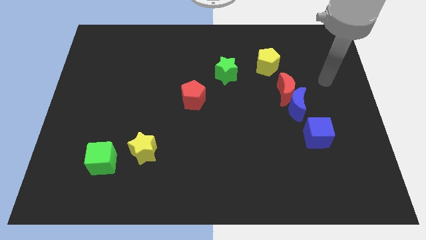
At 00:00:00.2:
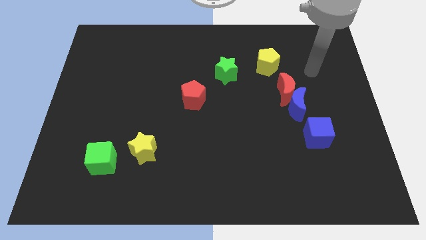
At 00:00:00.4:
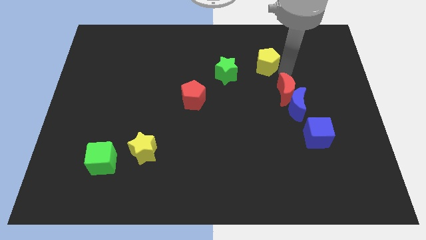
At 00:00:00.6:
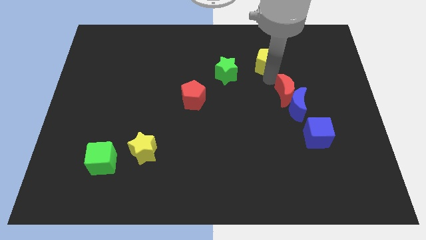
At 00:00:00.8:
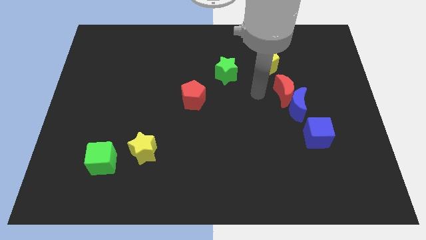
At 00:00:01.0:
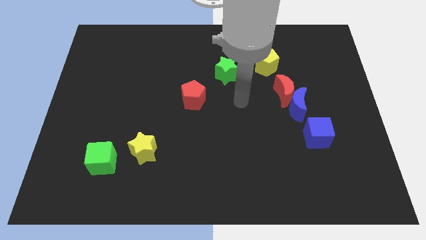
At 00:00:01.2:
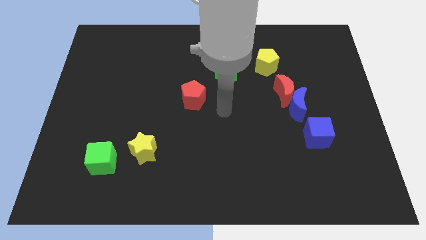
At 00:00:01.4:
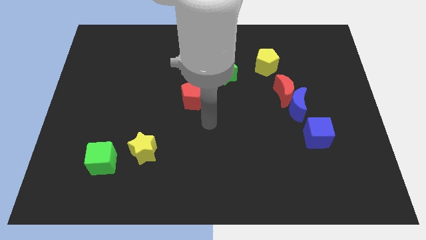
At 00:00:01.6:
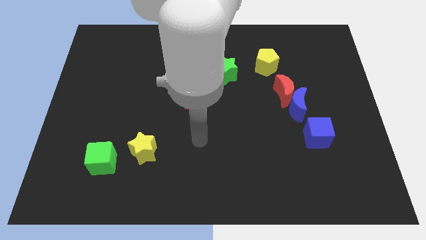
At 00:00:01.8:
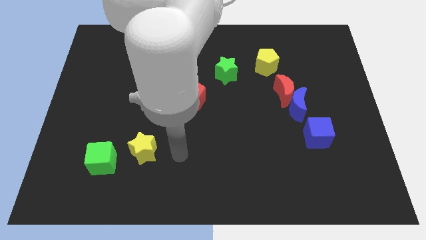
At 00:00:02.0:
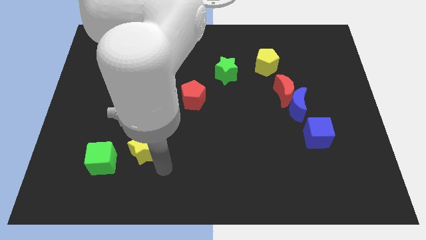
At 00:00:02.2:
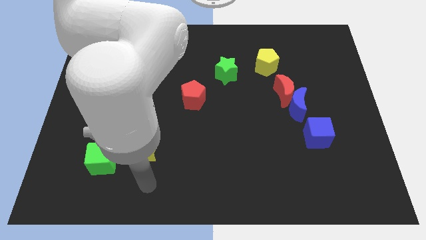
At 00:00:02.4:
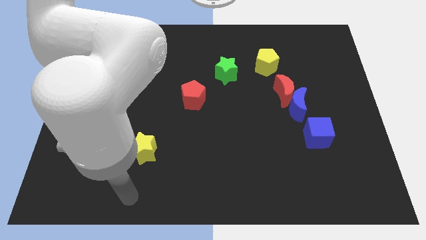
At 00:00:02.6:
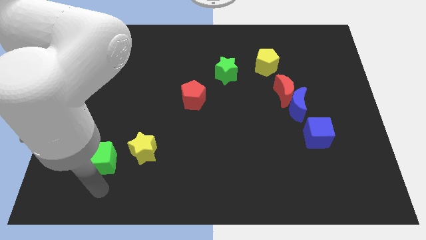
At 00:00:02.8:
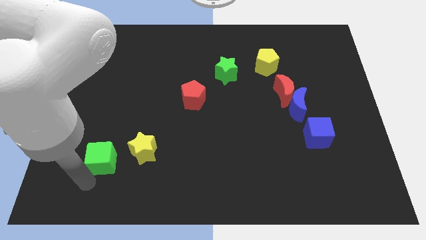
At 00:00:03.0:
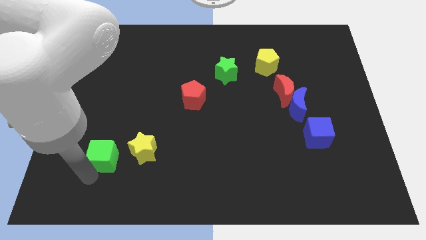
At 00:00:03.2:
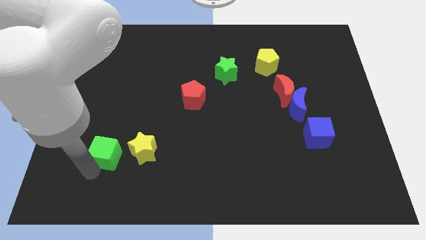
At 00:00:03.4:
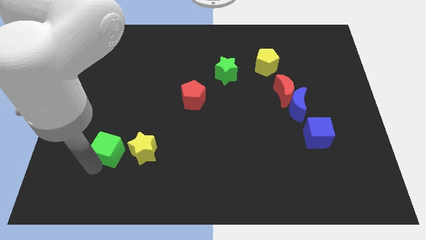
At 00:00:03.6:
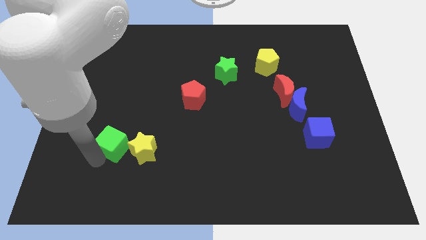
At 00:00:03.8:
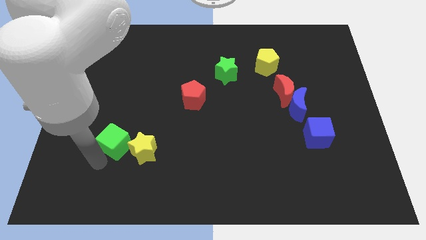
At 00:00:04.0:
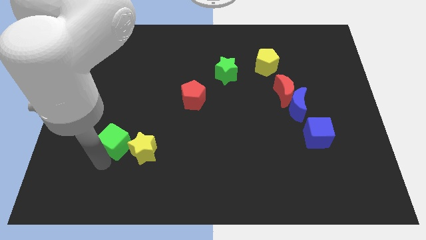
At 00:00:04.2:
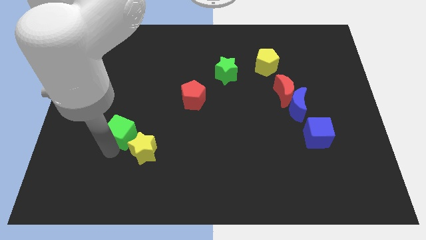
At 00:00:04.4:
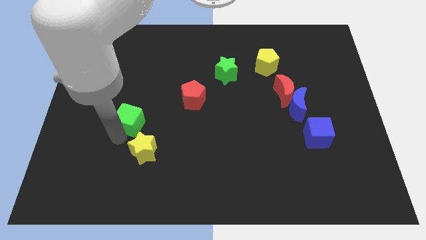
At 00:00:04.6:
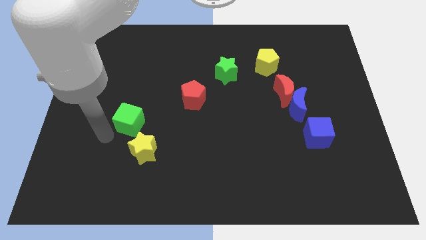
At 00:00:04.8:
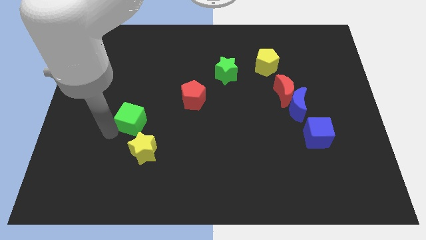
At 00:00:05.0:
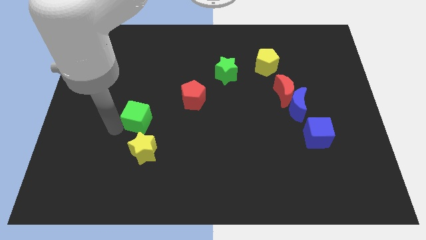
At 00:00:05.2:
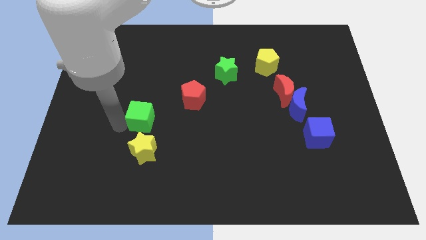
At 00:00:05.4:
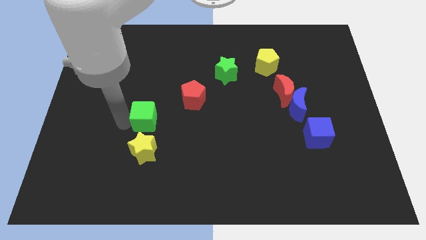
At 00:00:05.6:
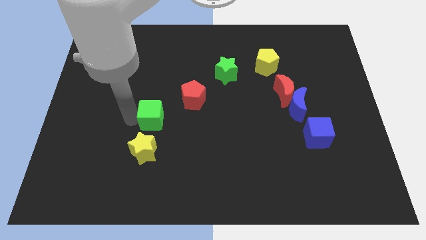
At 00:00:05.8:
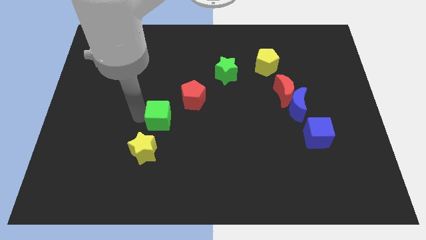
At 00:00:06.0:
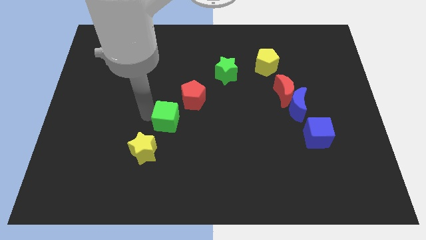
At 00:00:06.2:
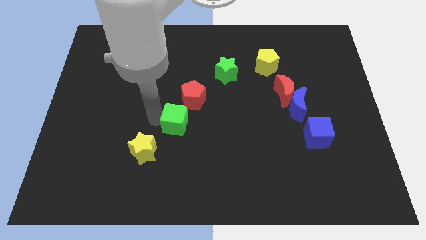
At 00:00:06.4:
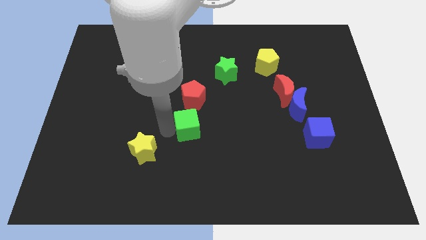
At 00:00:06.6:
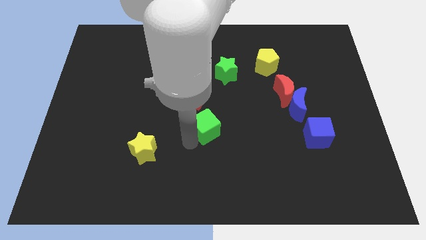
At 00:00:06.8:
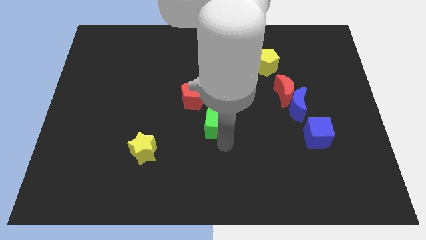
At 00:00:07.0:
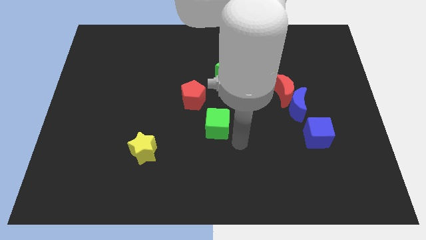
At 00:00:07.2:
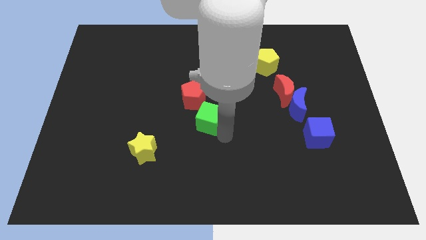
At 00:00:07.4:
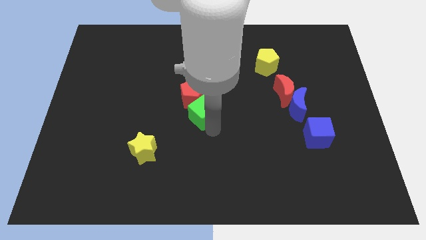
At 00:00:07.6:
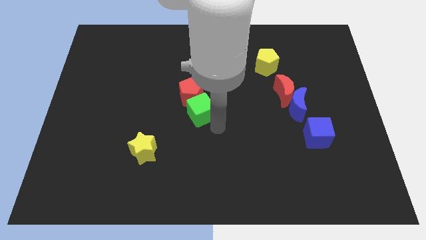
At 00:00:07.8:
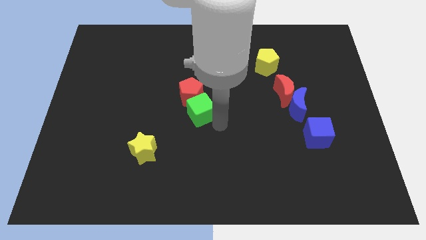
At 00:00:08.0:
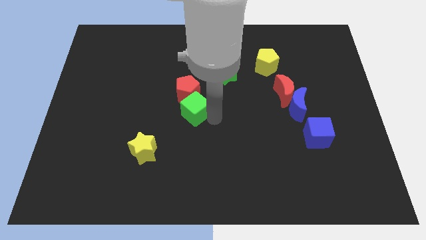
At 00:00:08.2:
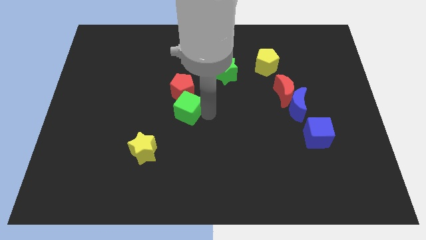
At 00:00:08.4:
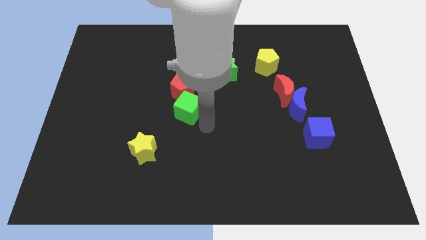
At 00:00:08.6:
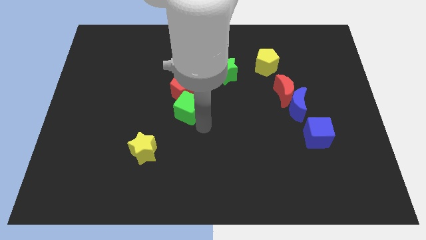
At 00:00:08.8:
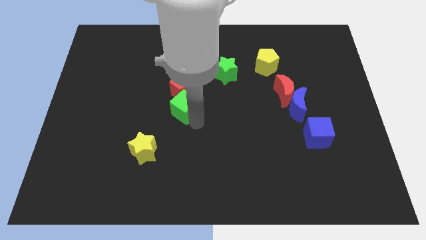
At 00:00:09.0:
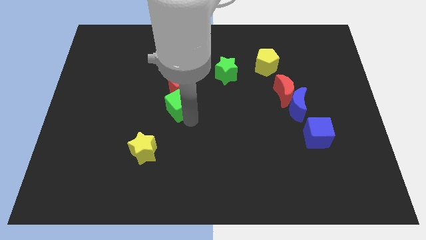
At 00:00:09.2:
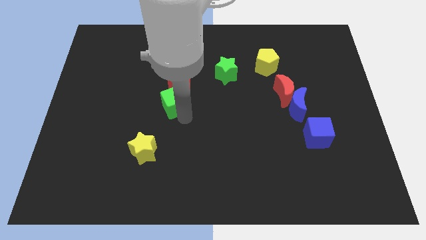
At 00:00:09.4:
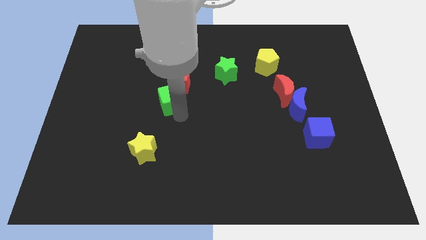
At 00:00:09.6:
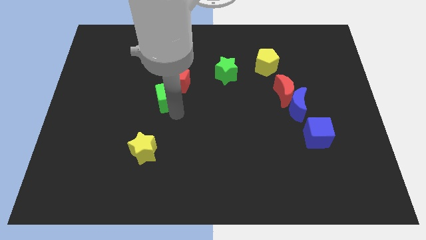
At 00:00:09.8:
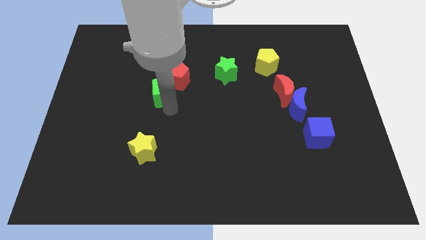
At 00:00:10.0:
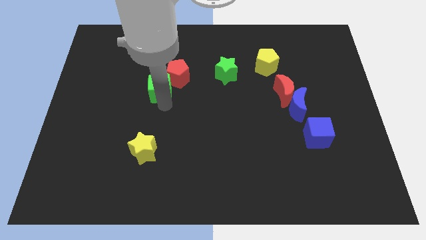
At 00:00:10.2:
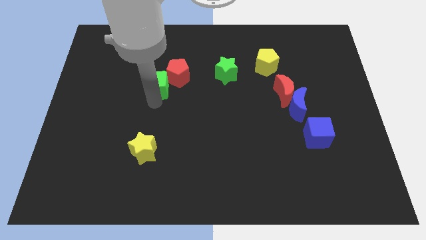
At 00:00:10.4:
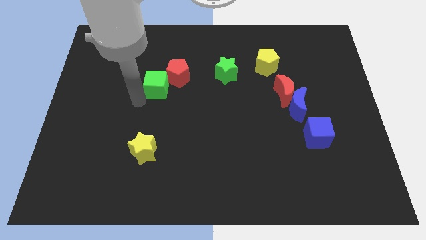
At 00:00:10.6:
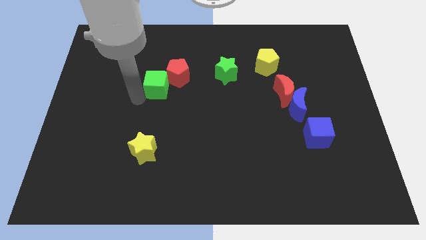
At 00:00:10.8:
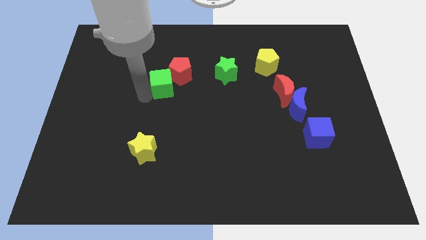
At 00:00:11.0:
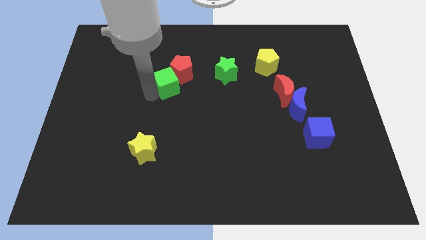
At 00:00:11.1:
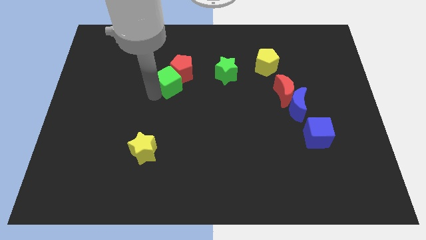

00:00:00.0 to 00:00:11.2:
put the green cube just left of the green star

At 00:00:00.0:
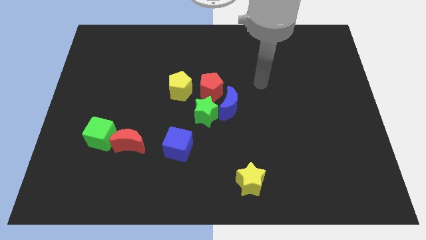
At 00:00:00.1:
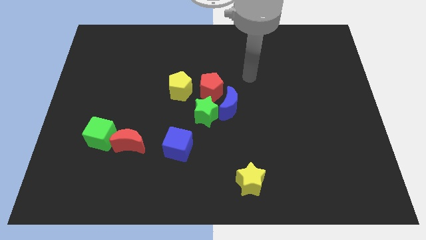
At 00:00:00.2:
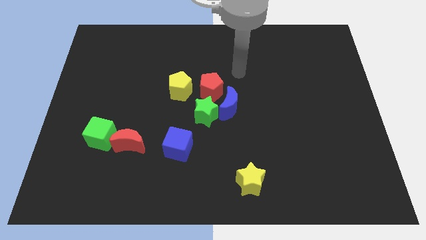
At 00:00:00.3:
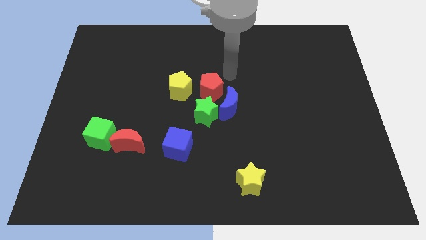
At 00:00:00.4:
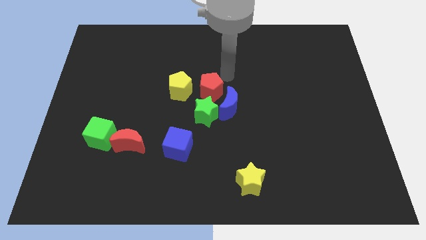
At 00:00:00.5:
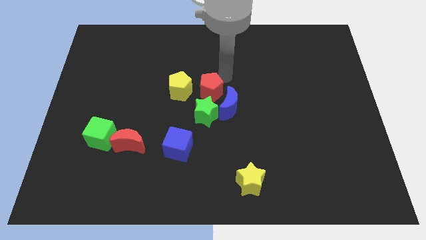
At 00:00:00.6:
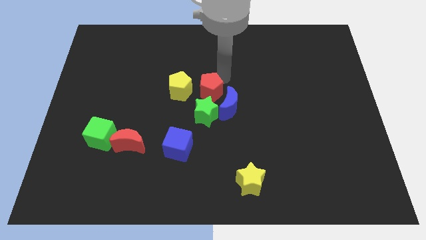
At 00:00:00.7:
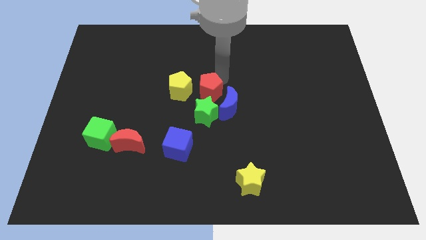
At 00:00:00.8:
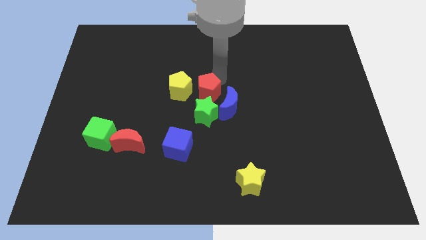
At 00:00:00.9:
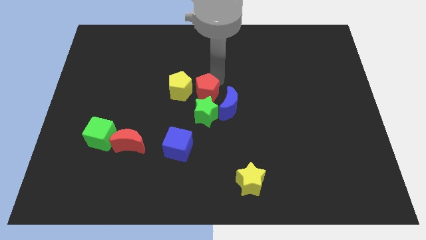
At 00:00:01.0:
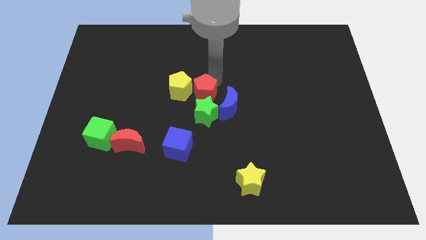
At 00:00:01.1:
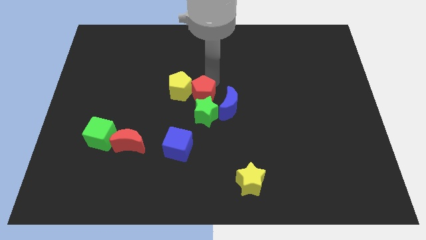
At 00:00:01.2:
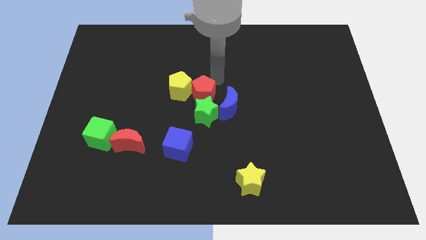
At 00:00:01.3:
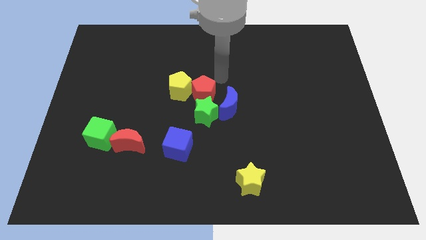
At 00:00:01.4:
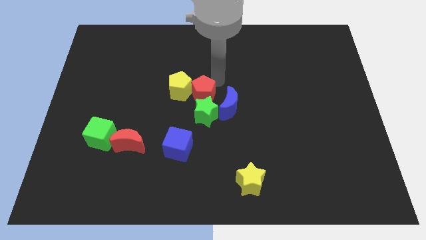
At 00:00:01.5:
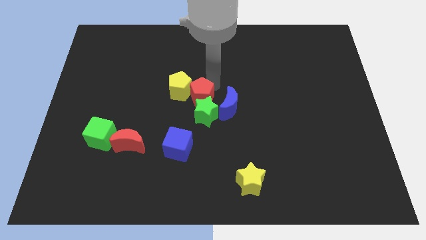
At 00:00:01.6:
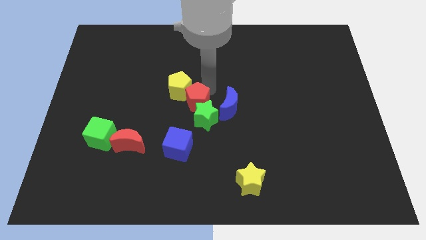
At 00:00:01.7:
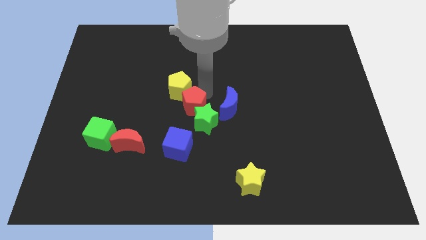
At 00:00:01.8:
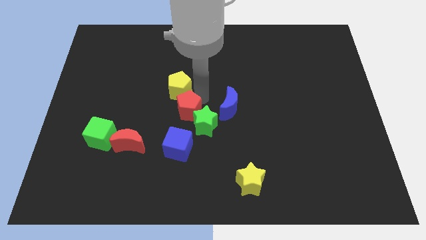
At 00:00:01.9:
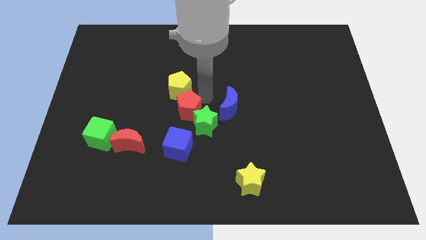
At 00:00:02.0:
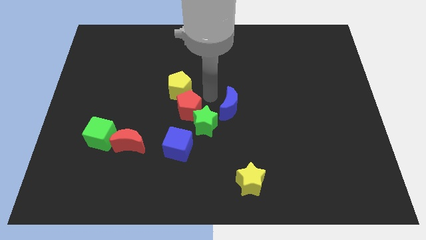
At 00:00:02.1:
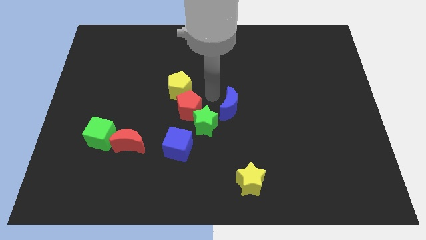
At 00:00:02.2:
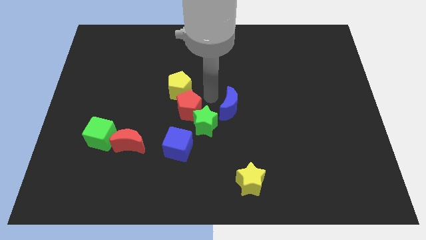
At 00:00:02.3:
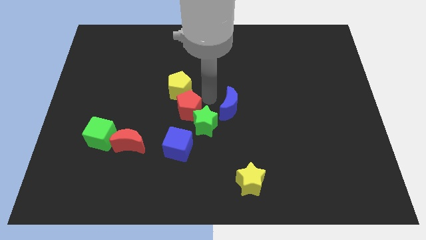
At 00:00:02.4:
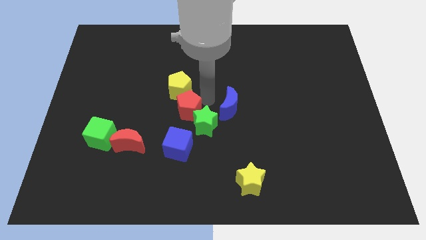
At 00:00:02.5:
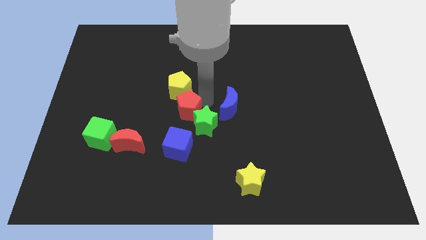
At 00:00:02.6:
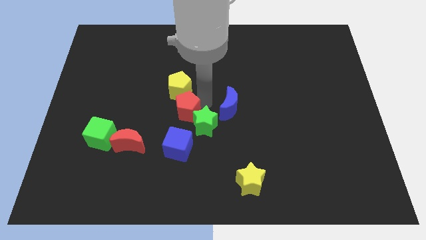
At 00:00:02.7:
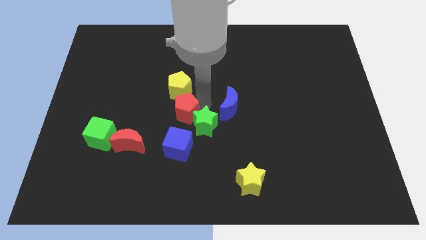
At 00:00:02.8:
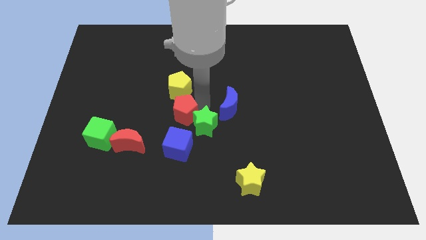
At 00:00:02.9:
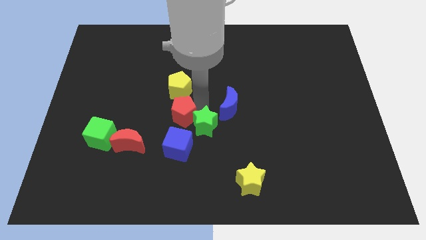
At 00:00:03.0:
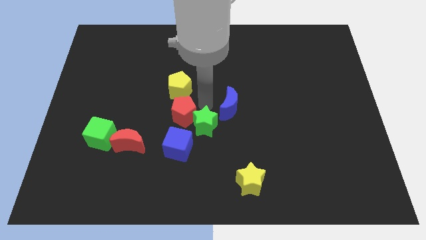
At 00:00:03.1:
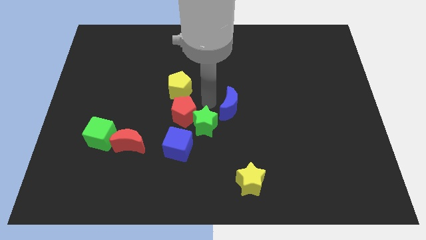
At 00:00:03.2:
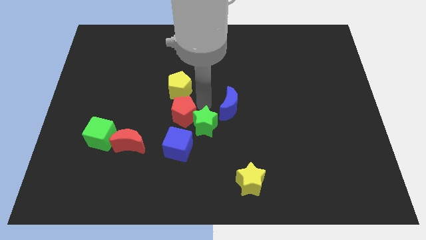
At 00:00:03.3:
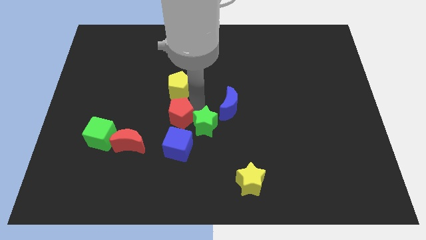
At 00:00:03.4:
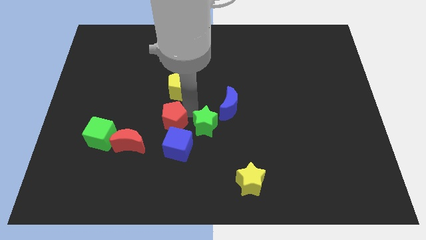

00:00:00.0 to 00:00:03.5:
put the red pentagon to the top left side of the blue cube
